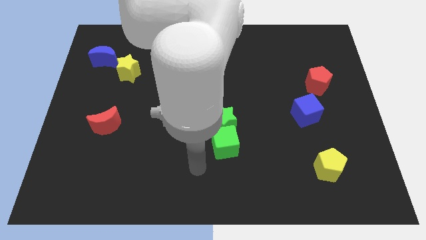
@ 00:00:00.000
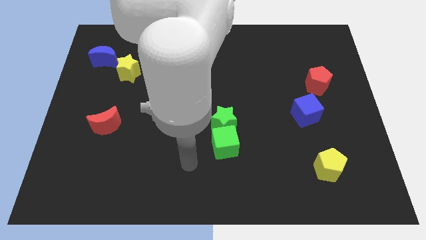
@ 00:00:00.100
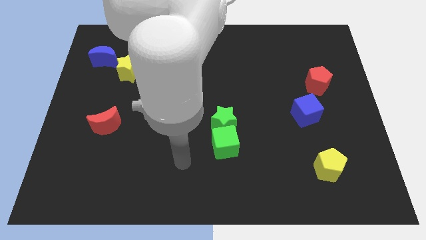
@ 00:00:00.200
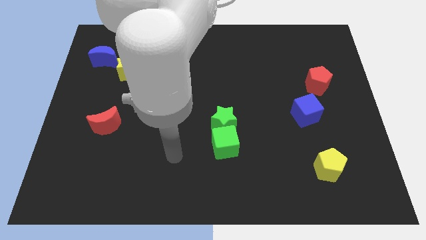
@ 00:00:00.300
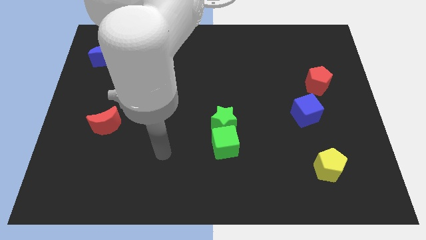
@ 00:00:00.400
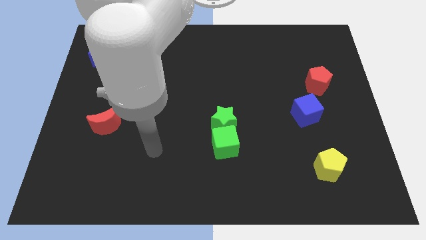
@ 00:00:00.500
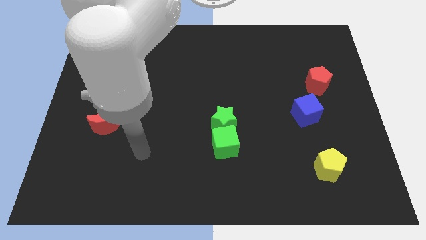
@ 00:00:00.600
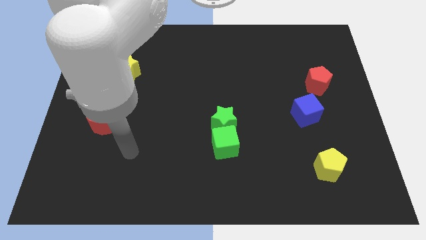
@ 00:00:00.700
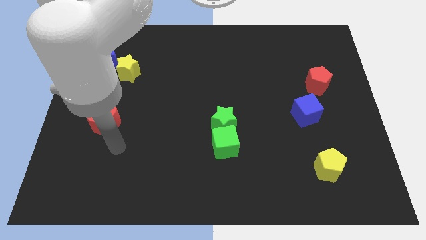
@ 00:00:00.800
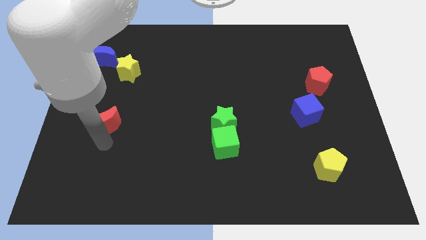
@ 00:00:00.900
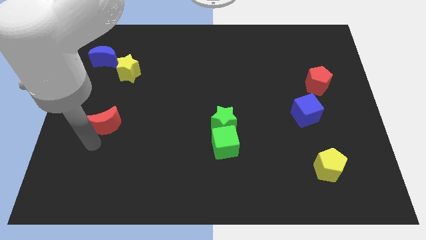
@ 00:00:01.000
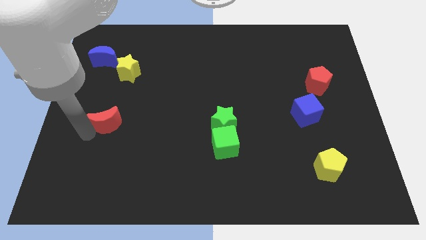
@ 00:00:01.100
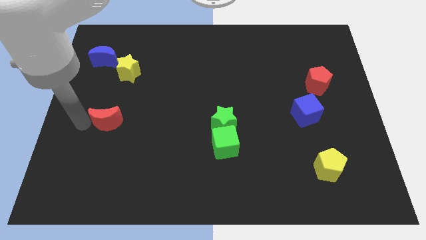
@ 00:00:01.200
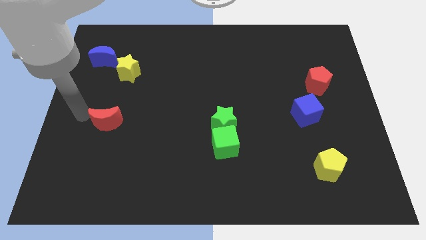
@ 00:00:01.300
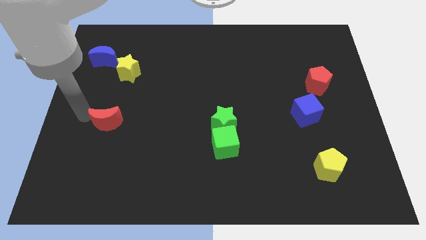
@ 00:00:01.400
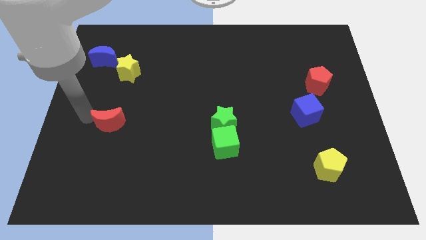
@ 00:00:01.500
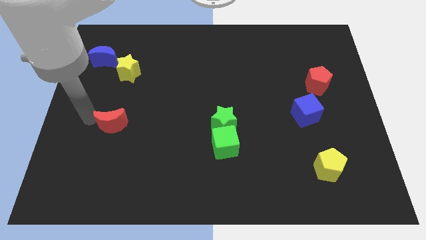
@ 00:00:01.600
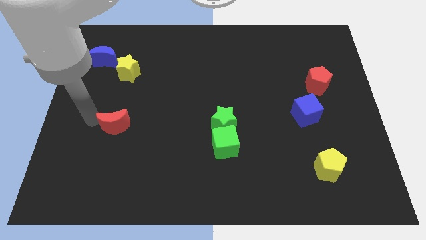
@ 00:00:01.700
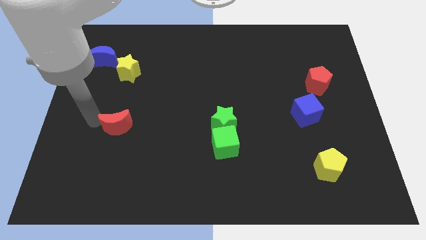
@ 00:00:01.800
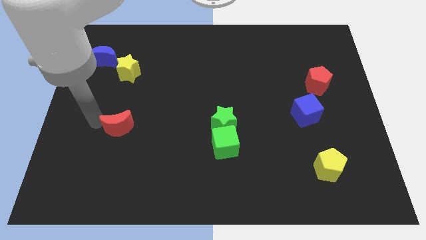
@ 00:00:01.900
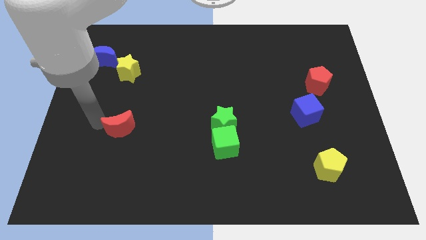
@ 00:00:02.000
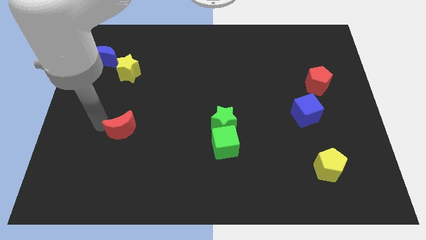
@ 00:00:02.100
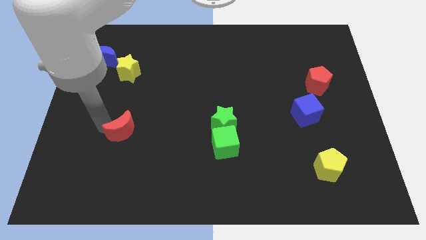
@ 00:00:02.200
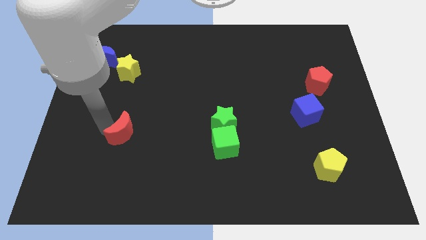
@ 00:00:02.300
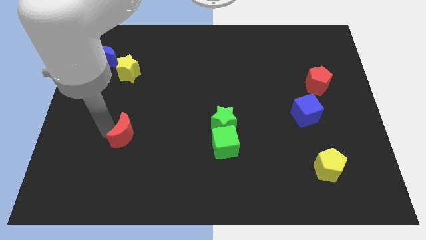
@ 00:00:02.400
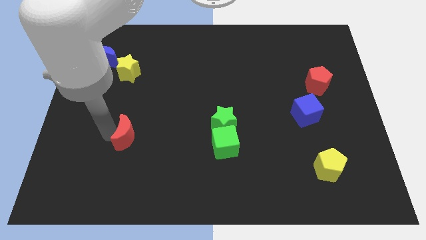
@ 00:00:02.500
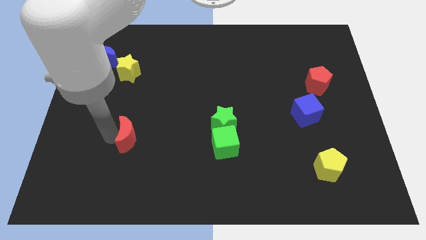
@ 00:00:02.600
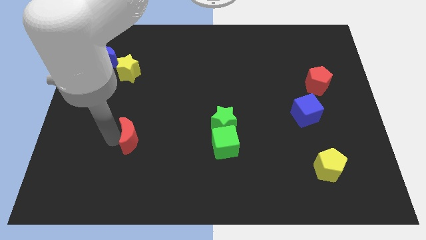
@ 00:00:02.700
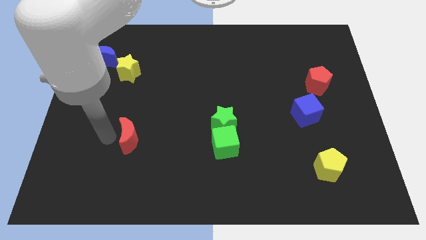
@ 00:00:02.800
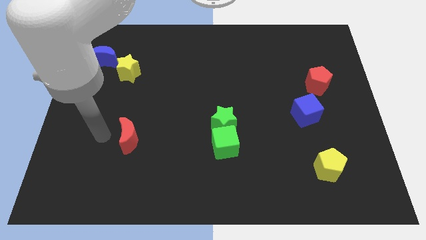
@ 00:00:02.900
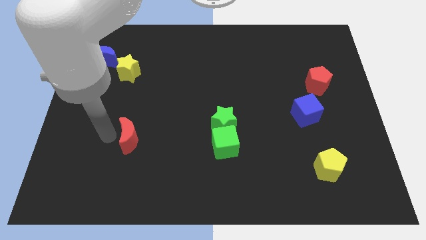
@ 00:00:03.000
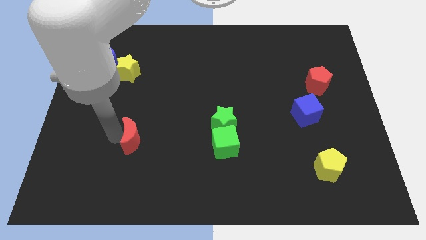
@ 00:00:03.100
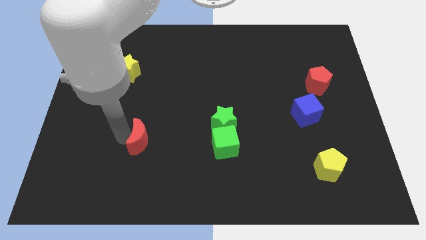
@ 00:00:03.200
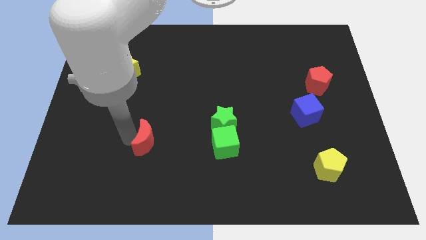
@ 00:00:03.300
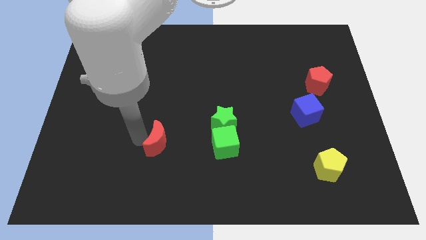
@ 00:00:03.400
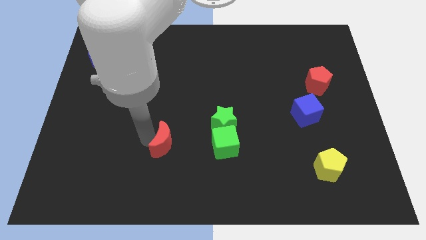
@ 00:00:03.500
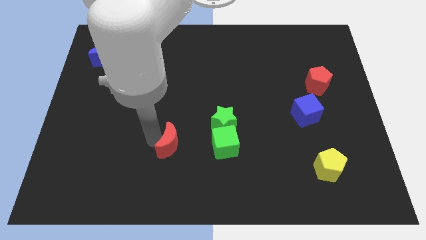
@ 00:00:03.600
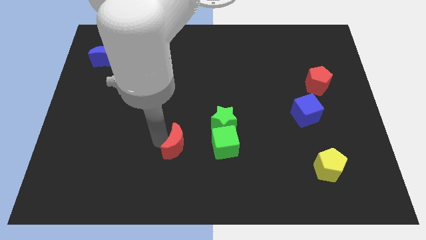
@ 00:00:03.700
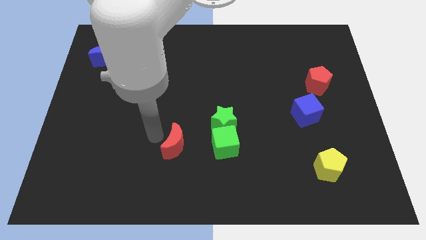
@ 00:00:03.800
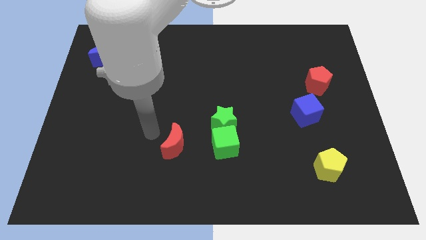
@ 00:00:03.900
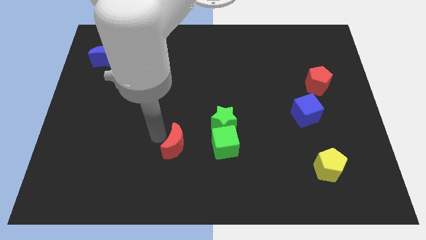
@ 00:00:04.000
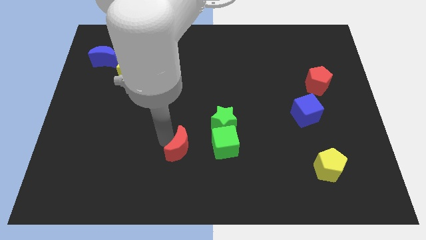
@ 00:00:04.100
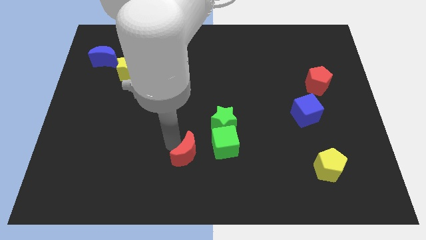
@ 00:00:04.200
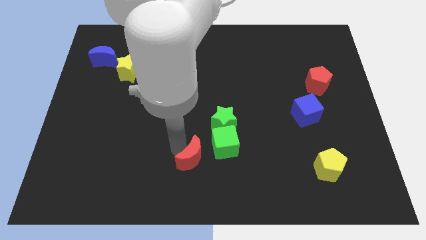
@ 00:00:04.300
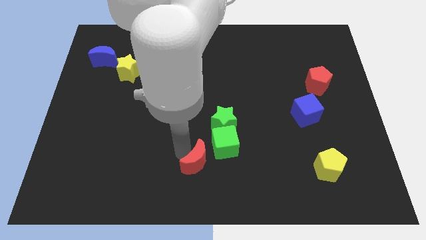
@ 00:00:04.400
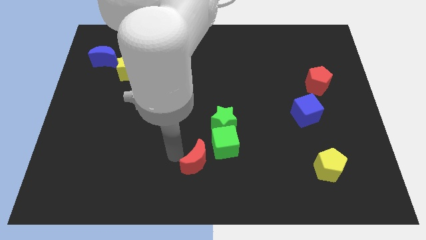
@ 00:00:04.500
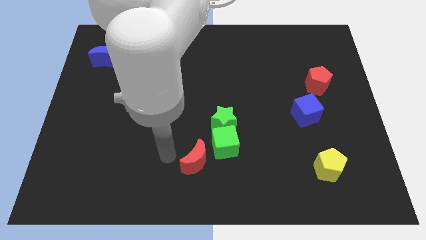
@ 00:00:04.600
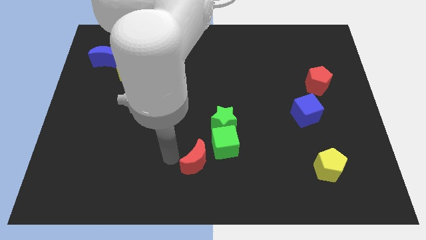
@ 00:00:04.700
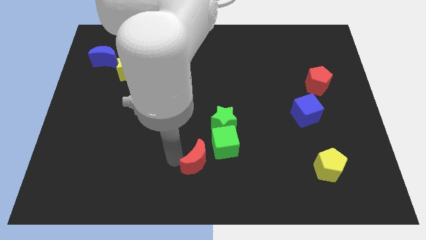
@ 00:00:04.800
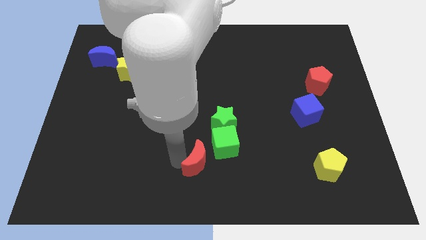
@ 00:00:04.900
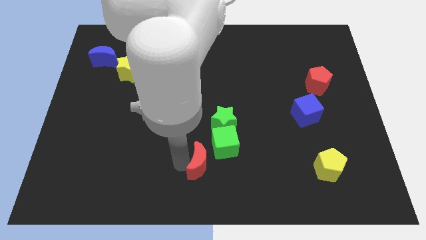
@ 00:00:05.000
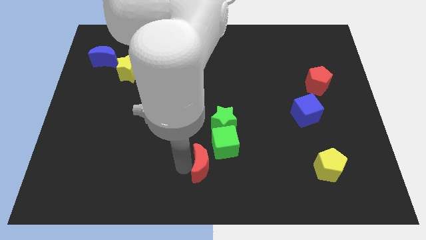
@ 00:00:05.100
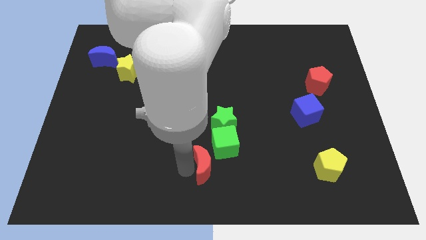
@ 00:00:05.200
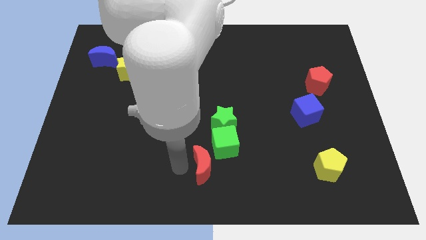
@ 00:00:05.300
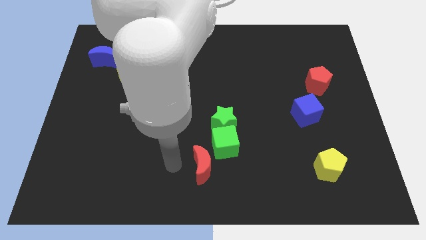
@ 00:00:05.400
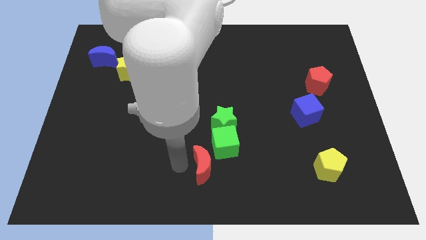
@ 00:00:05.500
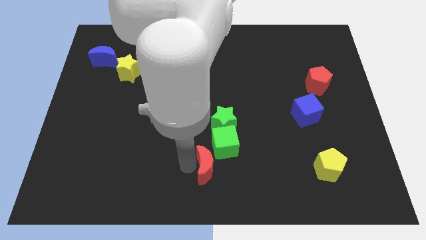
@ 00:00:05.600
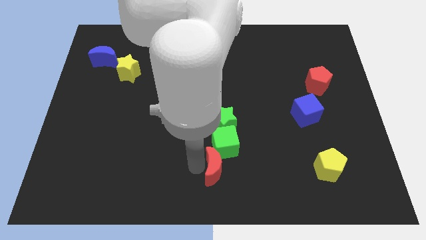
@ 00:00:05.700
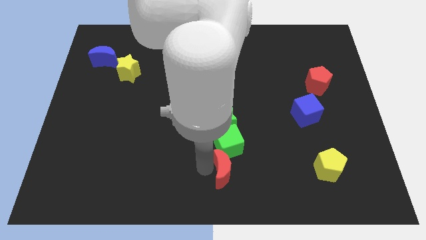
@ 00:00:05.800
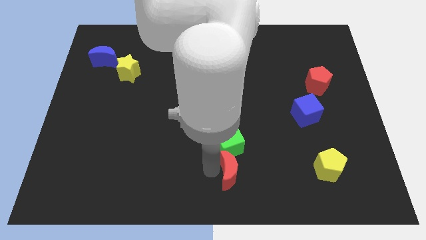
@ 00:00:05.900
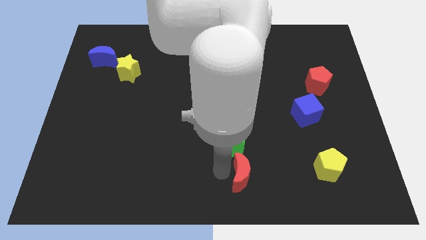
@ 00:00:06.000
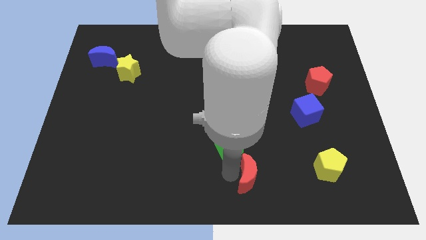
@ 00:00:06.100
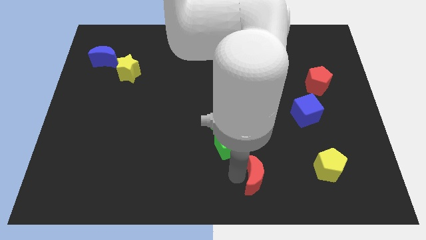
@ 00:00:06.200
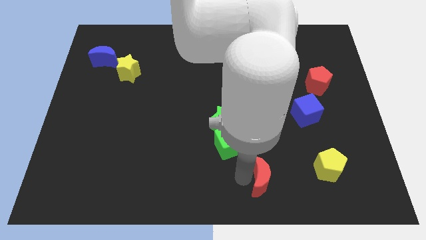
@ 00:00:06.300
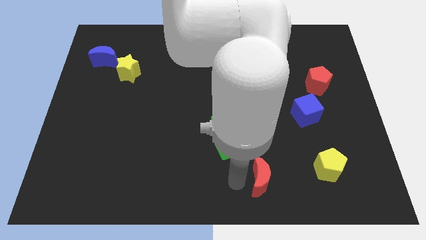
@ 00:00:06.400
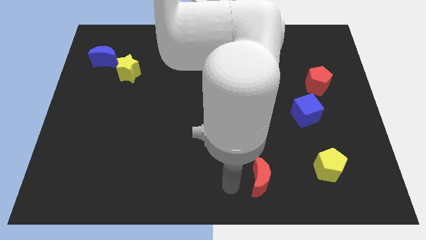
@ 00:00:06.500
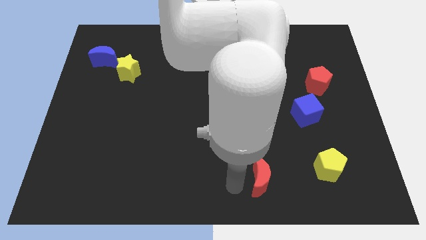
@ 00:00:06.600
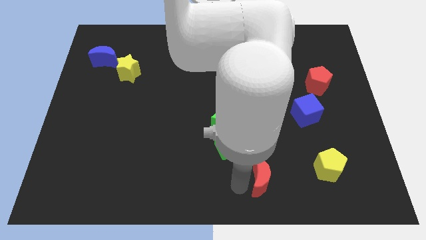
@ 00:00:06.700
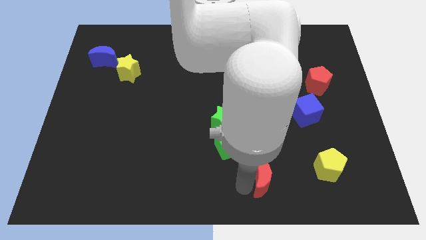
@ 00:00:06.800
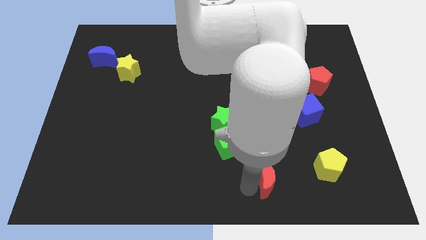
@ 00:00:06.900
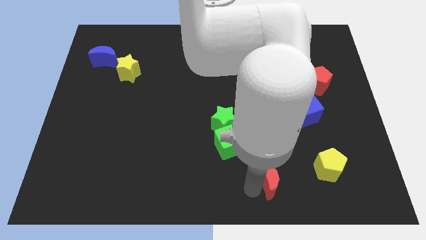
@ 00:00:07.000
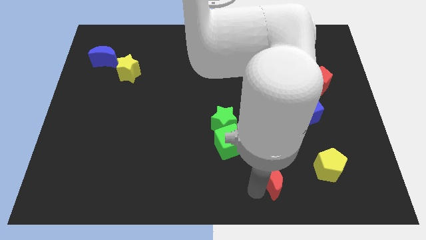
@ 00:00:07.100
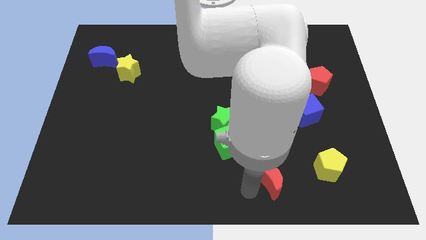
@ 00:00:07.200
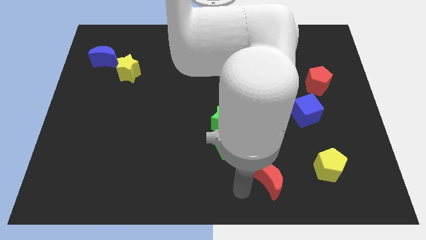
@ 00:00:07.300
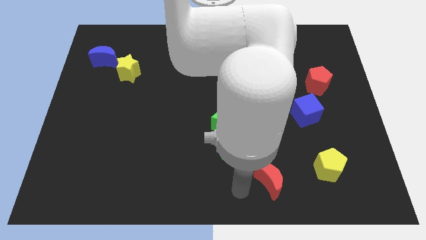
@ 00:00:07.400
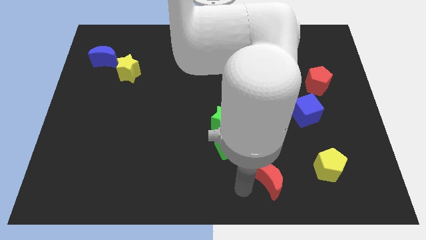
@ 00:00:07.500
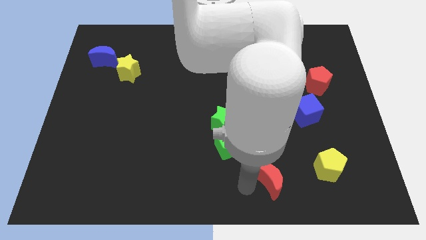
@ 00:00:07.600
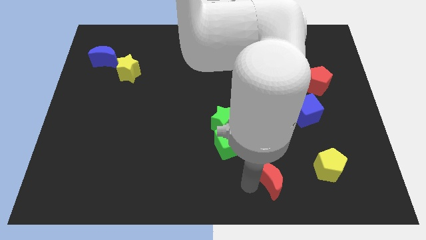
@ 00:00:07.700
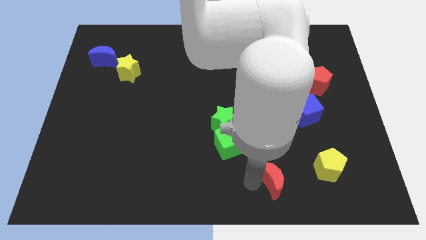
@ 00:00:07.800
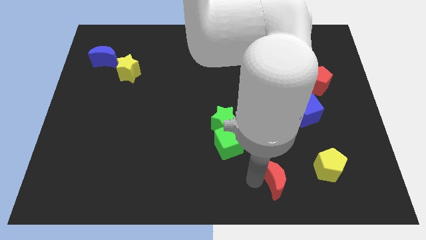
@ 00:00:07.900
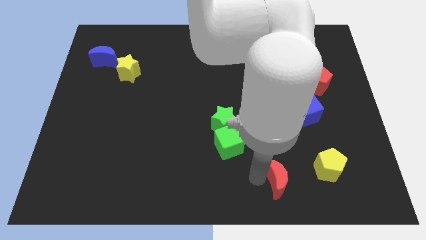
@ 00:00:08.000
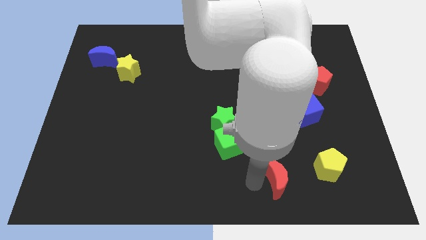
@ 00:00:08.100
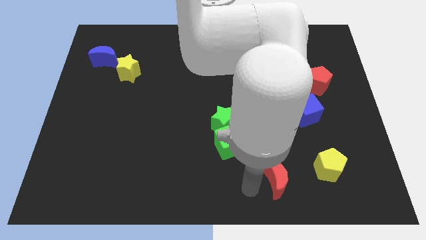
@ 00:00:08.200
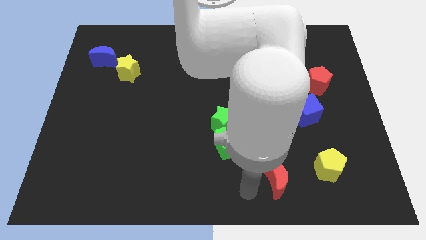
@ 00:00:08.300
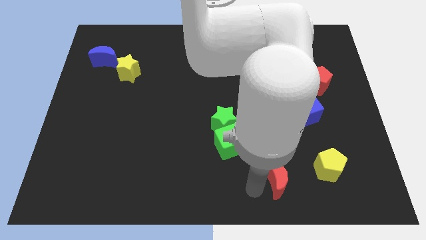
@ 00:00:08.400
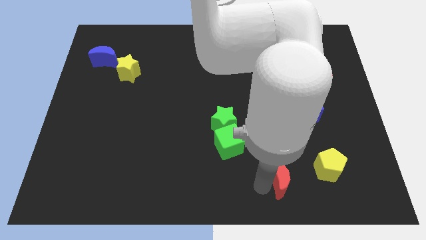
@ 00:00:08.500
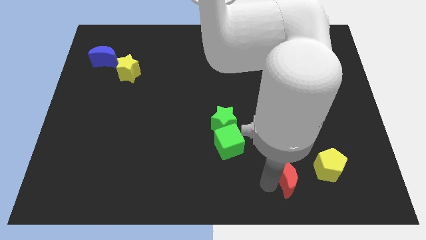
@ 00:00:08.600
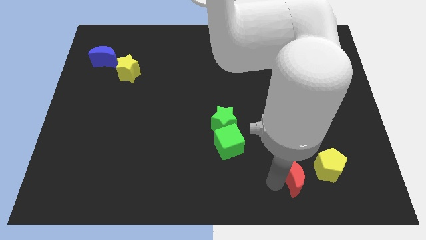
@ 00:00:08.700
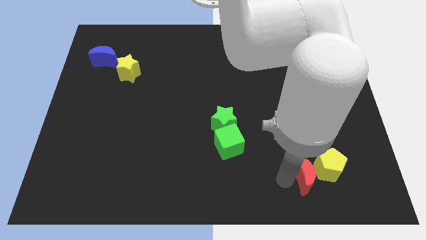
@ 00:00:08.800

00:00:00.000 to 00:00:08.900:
slide the red moon next to the yellow pentagon
